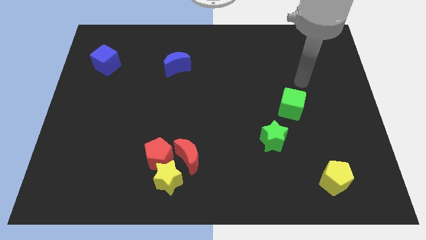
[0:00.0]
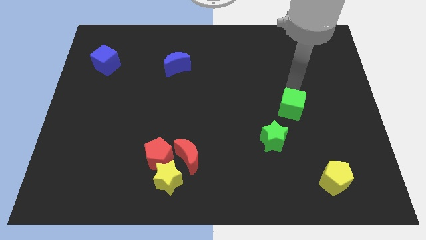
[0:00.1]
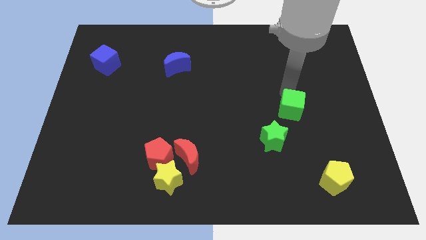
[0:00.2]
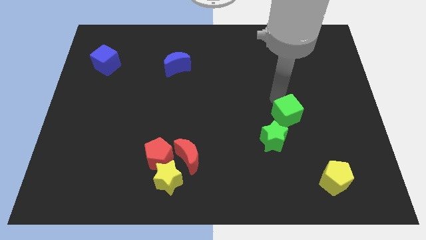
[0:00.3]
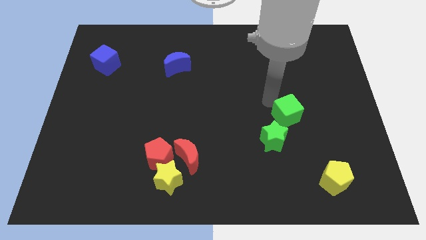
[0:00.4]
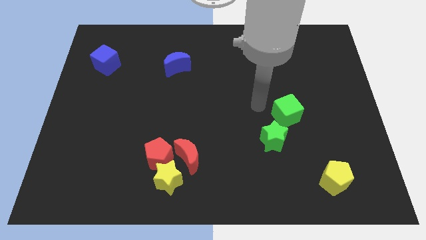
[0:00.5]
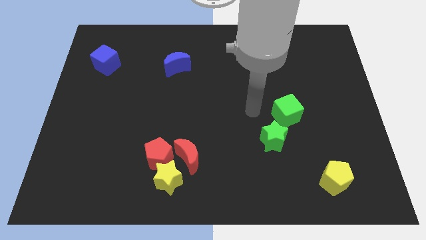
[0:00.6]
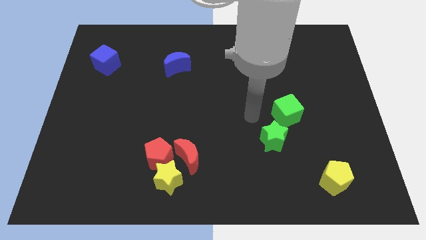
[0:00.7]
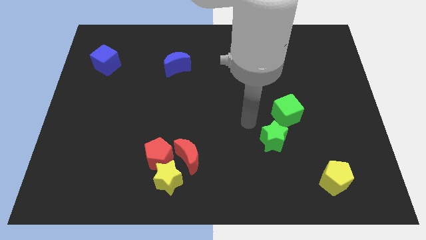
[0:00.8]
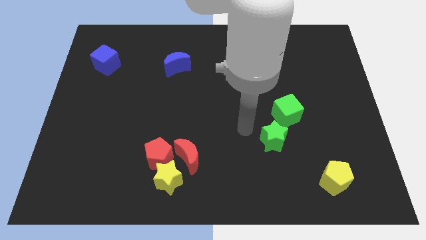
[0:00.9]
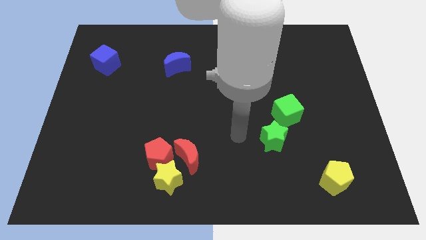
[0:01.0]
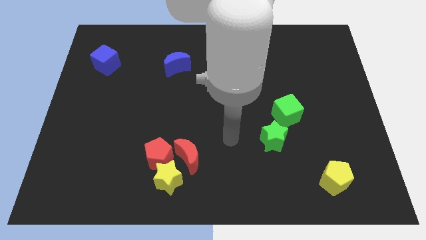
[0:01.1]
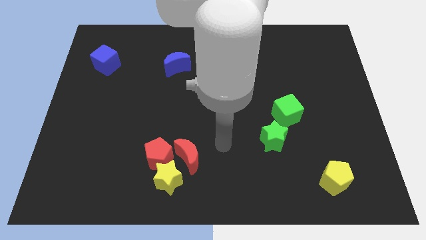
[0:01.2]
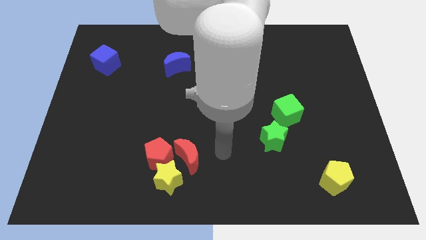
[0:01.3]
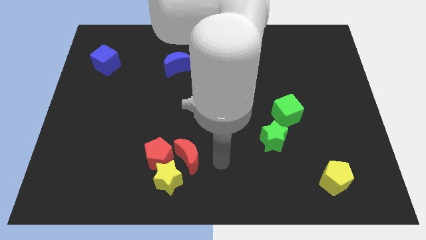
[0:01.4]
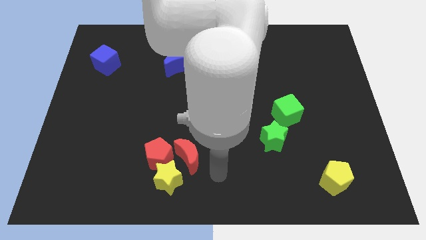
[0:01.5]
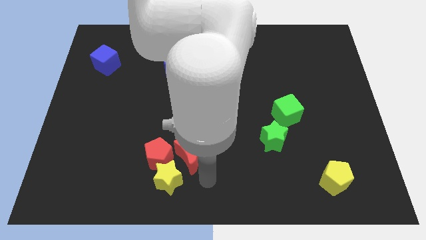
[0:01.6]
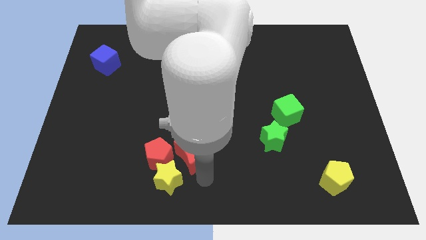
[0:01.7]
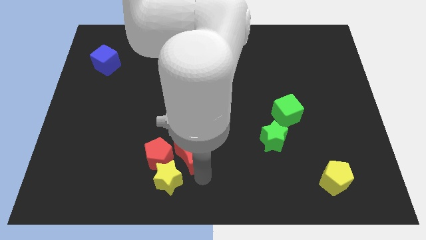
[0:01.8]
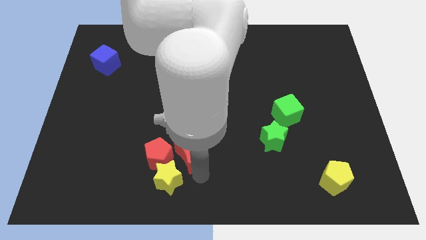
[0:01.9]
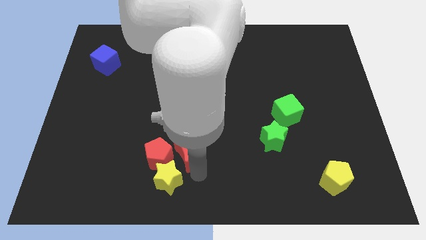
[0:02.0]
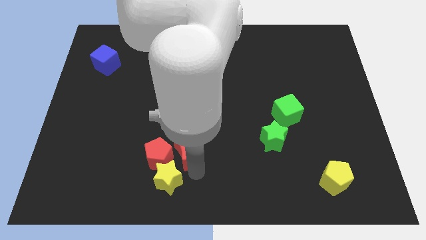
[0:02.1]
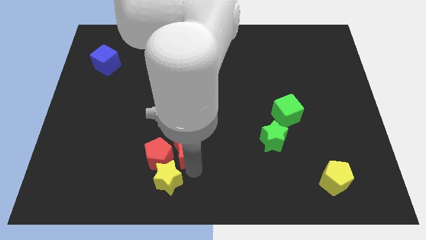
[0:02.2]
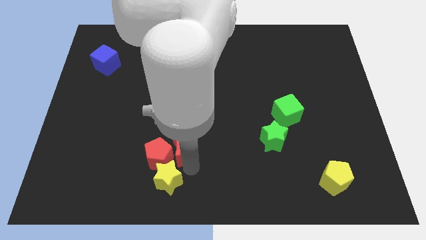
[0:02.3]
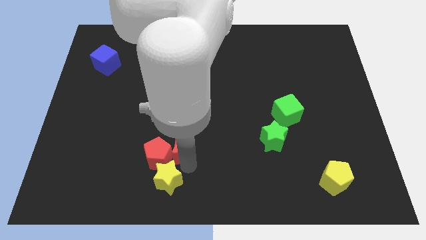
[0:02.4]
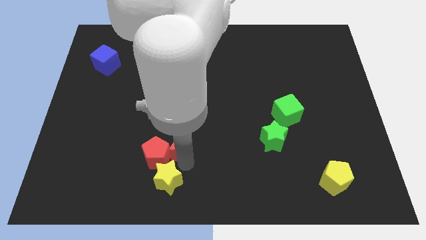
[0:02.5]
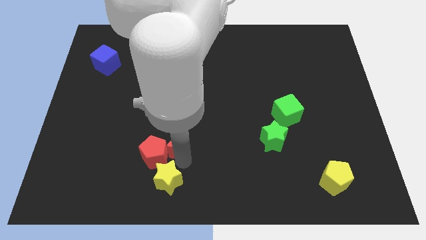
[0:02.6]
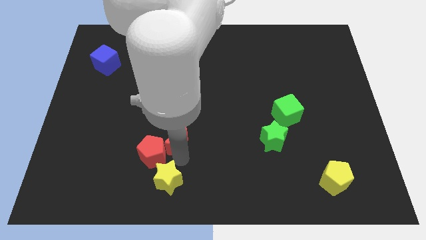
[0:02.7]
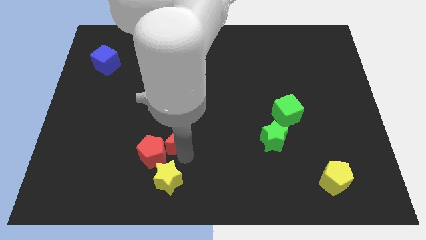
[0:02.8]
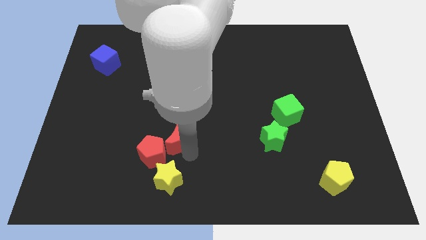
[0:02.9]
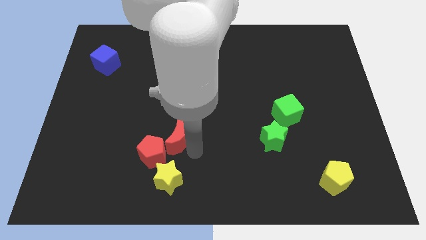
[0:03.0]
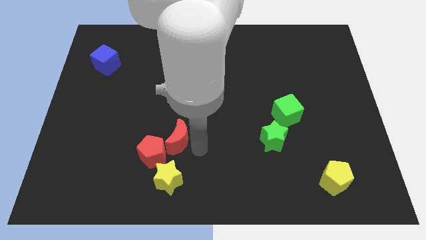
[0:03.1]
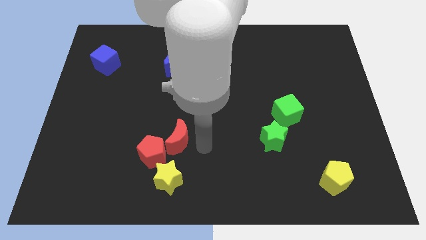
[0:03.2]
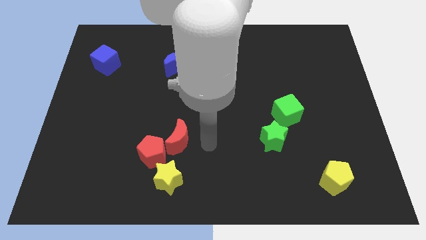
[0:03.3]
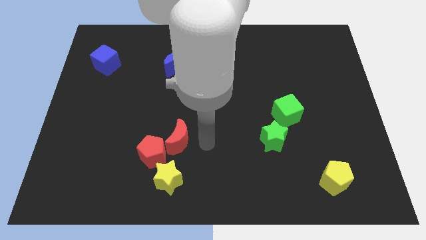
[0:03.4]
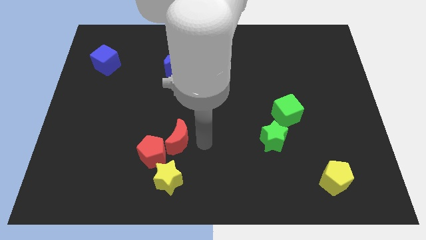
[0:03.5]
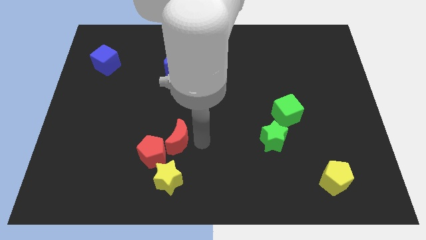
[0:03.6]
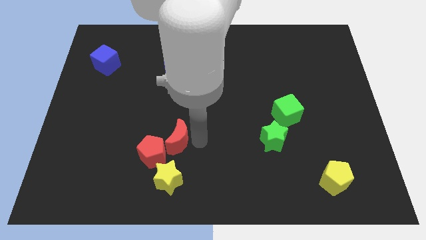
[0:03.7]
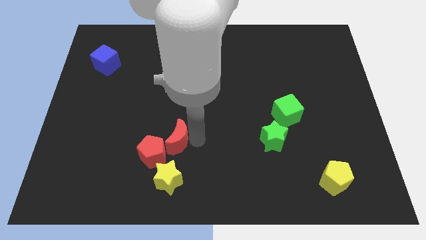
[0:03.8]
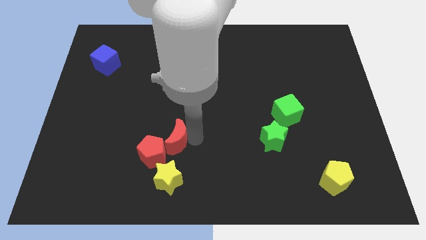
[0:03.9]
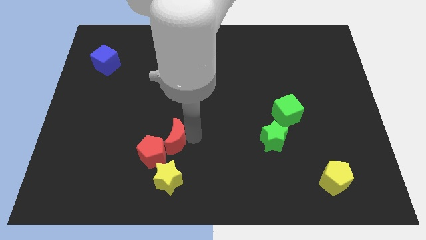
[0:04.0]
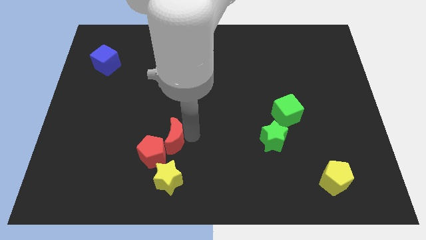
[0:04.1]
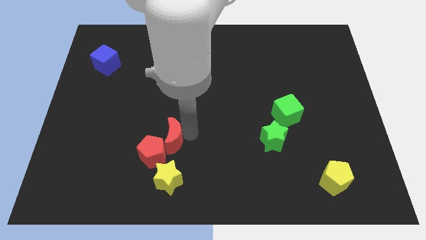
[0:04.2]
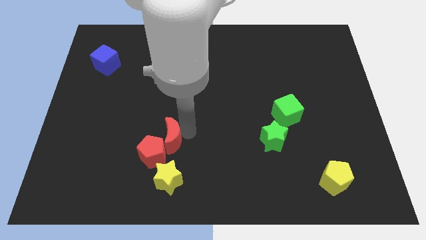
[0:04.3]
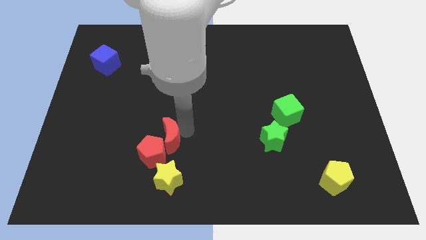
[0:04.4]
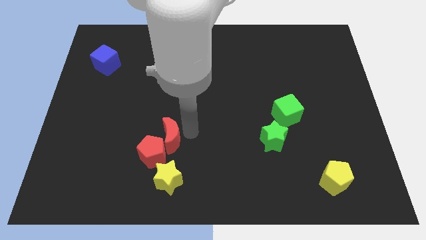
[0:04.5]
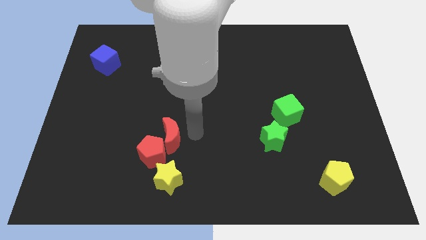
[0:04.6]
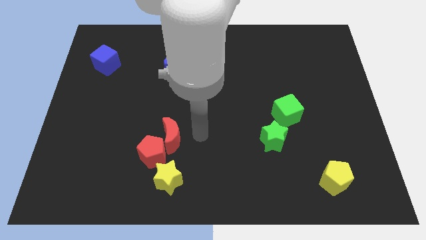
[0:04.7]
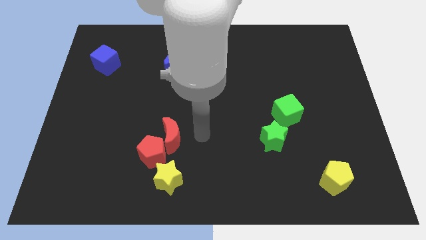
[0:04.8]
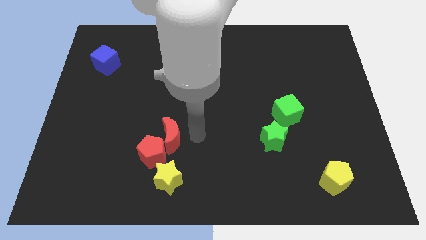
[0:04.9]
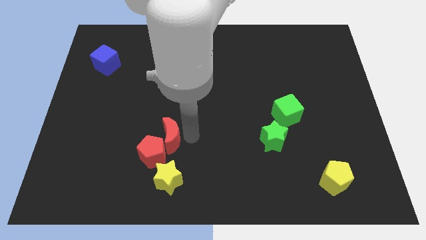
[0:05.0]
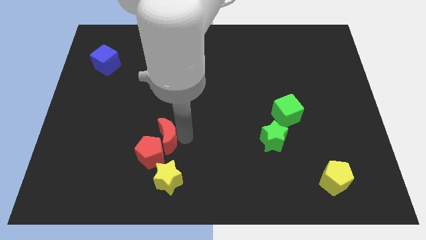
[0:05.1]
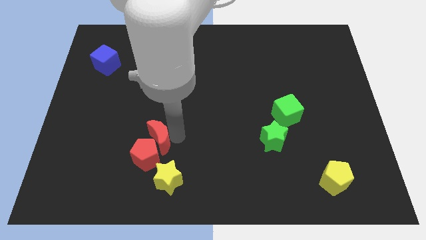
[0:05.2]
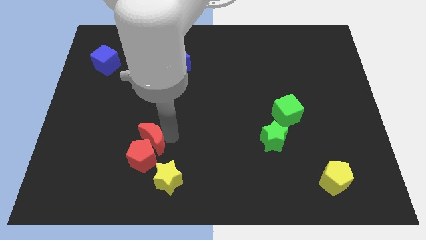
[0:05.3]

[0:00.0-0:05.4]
slide the red moon left somewhat

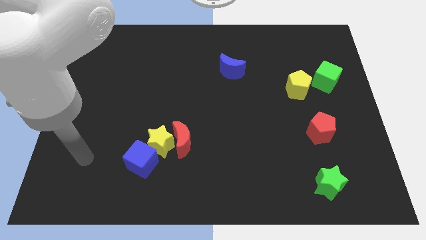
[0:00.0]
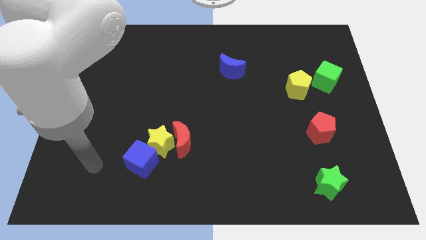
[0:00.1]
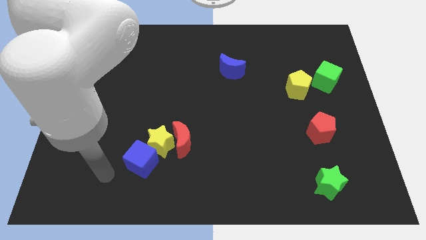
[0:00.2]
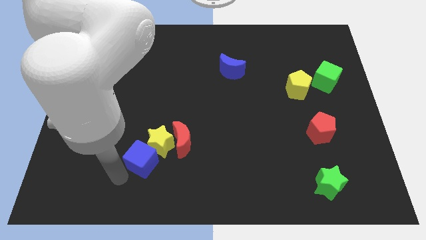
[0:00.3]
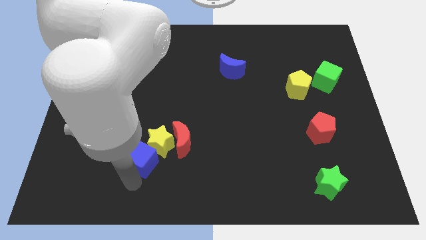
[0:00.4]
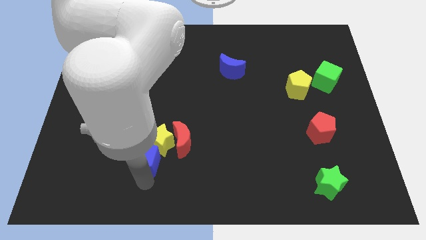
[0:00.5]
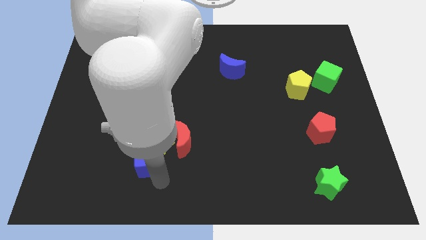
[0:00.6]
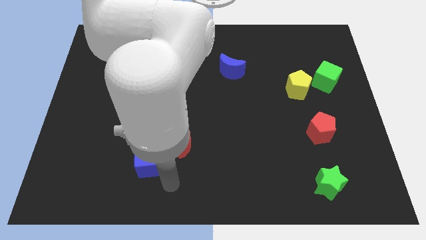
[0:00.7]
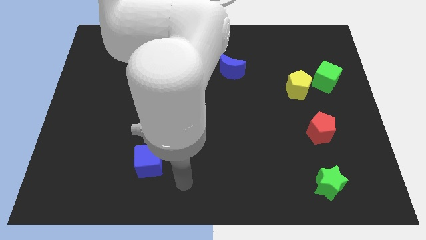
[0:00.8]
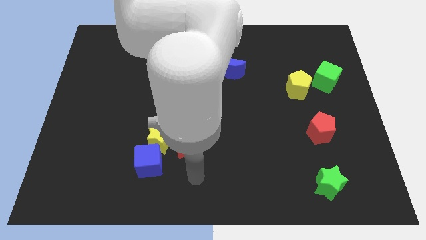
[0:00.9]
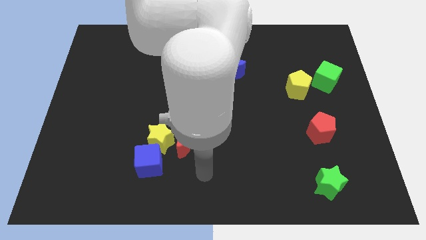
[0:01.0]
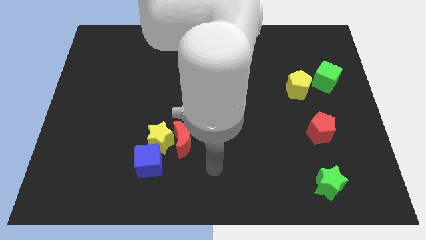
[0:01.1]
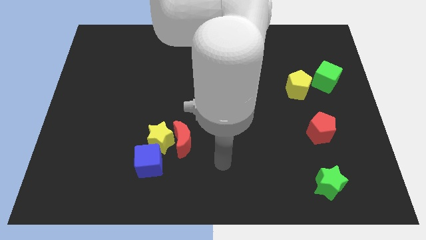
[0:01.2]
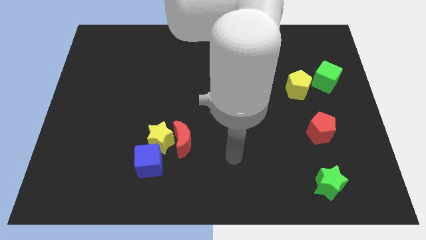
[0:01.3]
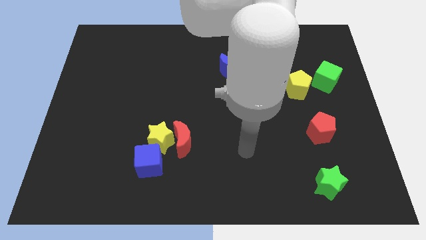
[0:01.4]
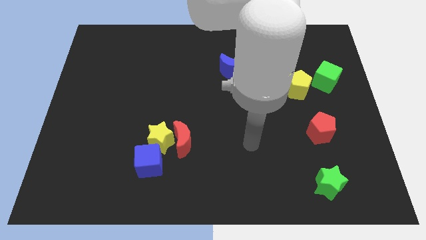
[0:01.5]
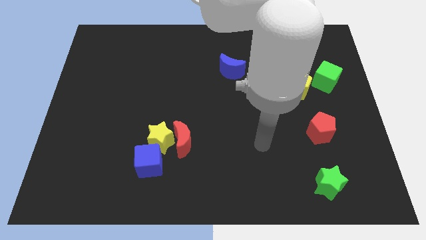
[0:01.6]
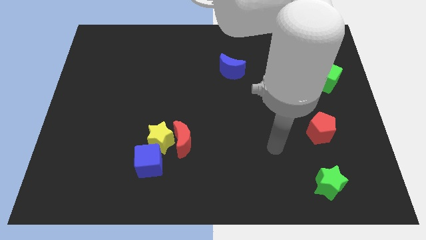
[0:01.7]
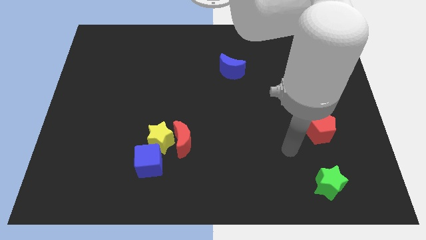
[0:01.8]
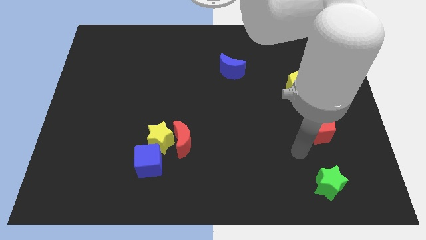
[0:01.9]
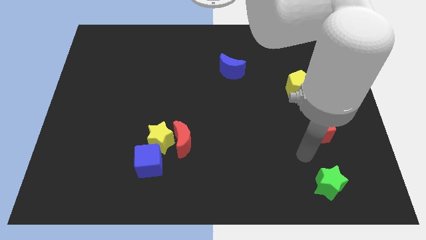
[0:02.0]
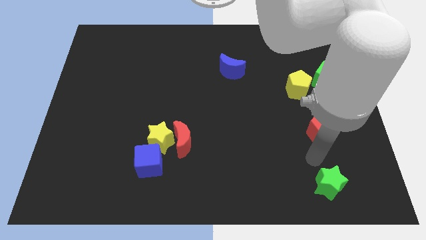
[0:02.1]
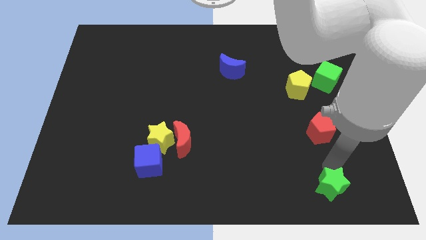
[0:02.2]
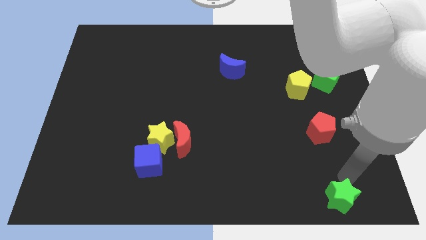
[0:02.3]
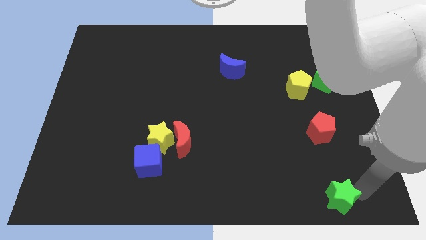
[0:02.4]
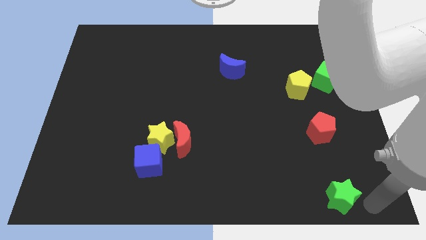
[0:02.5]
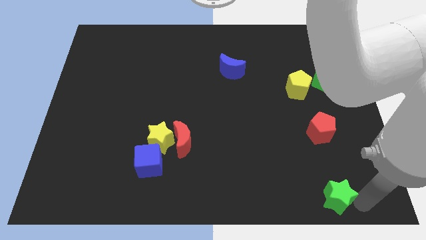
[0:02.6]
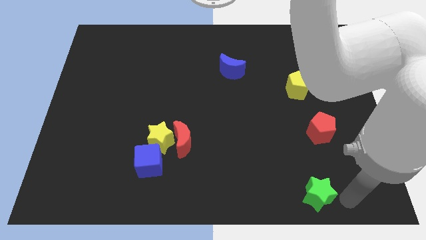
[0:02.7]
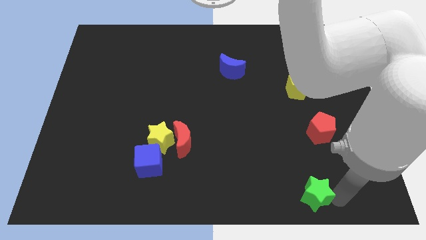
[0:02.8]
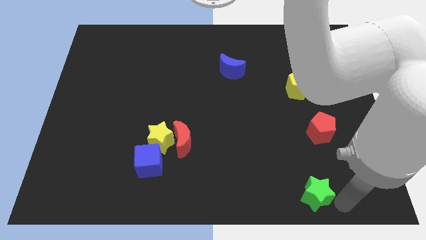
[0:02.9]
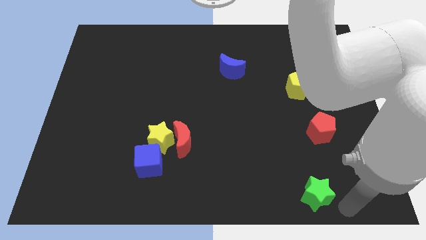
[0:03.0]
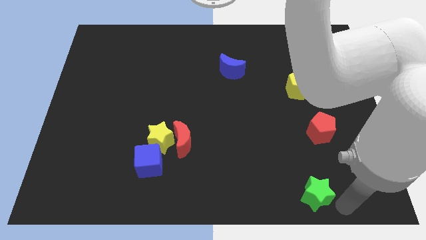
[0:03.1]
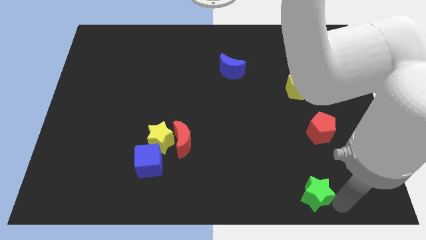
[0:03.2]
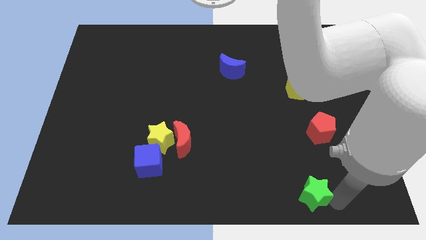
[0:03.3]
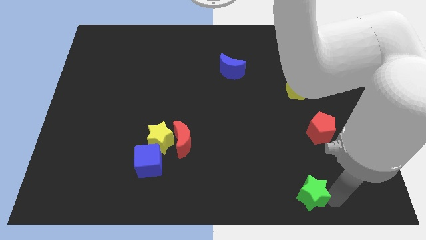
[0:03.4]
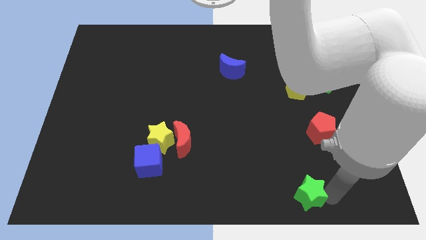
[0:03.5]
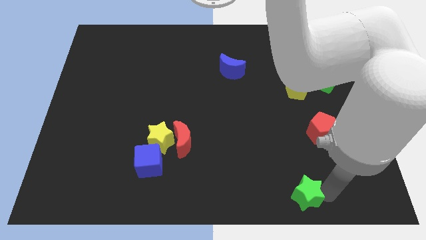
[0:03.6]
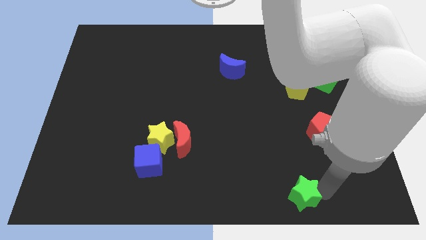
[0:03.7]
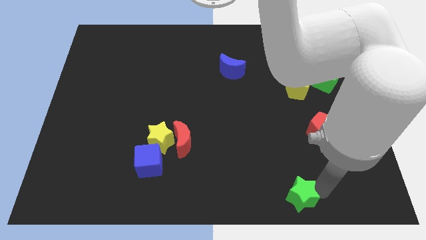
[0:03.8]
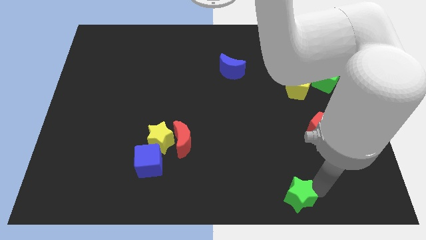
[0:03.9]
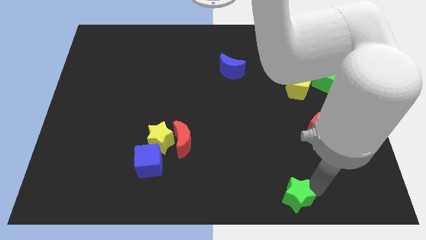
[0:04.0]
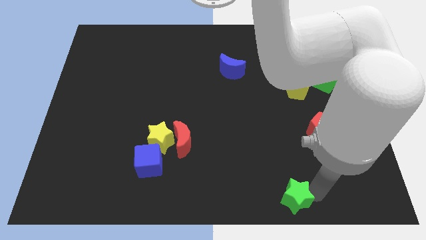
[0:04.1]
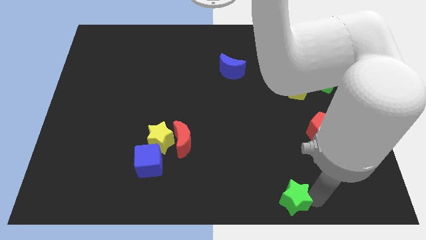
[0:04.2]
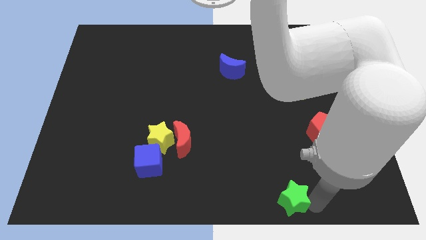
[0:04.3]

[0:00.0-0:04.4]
push the green star a little bit to the left
